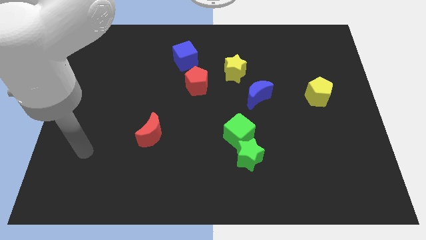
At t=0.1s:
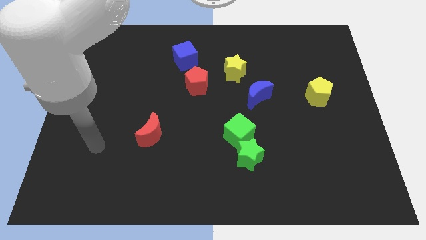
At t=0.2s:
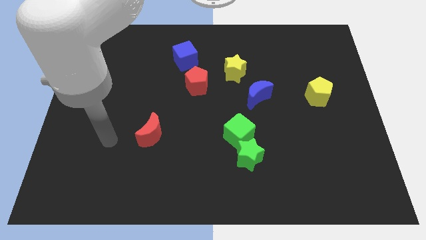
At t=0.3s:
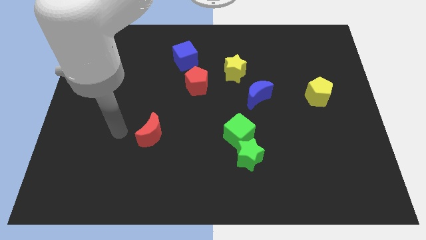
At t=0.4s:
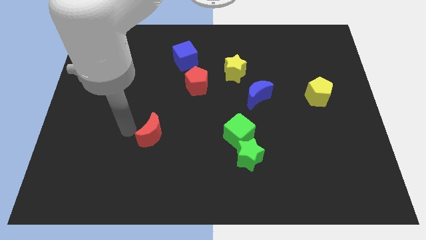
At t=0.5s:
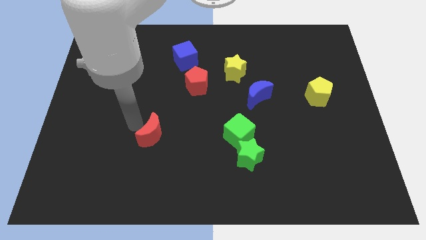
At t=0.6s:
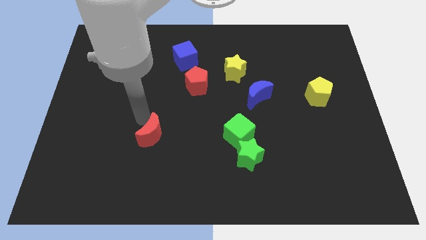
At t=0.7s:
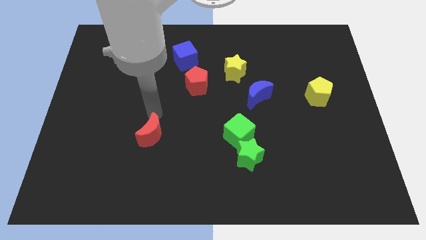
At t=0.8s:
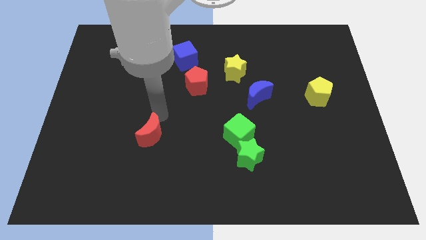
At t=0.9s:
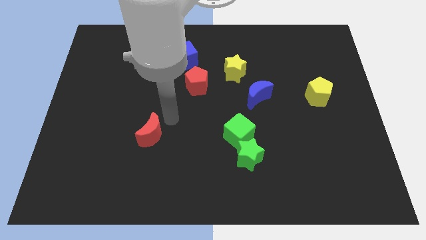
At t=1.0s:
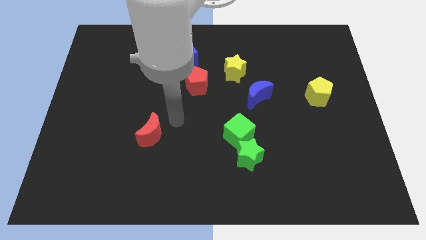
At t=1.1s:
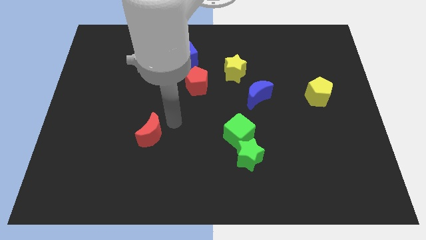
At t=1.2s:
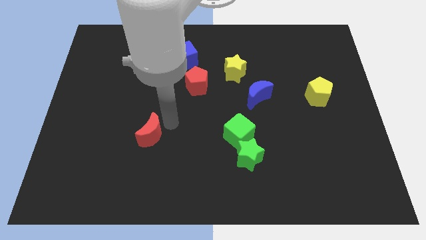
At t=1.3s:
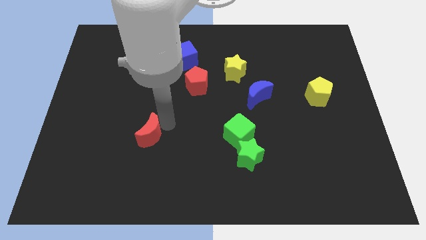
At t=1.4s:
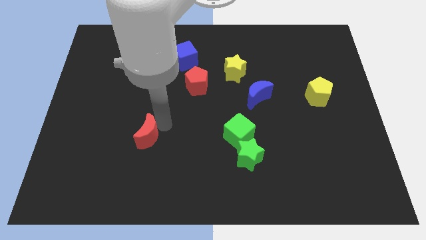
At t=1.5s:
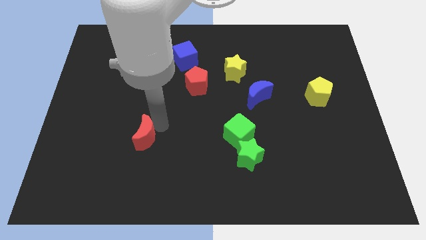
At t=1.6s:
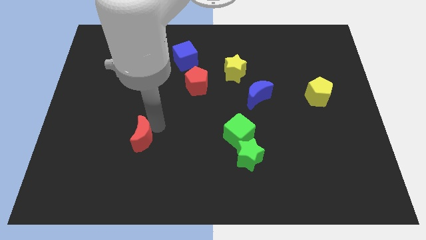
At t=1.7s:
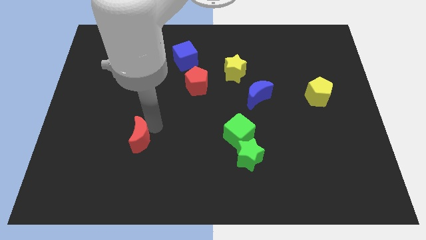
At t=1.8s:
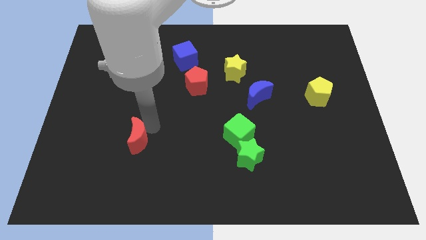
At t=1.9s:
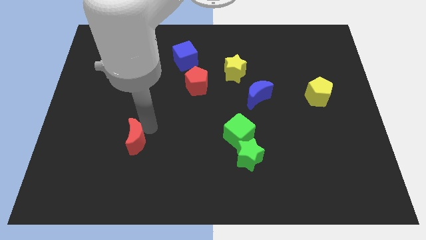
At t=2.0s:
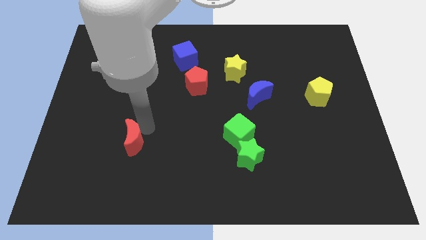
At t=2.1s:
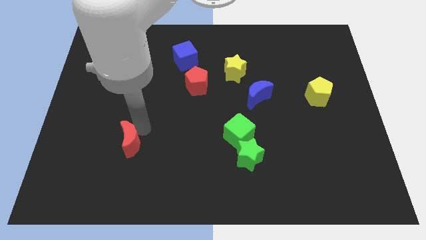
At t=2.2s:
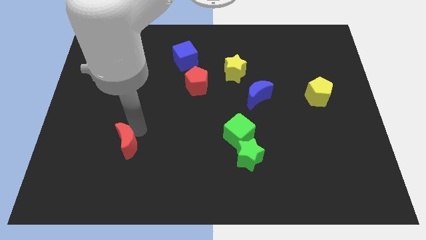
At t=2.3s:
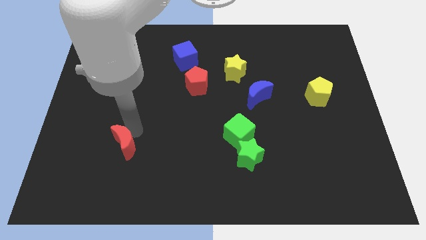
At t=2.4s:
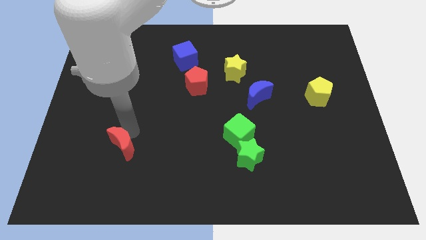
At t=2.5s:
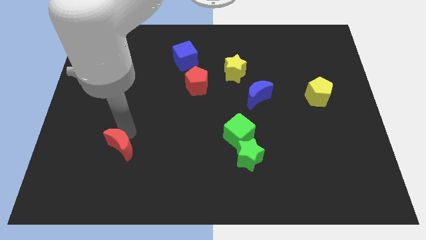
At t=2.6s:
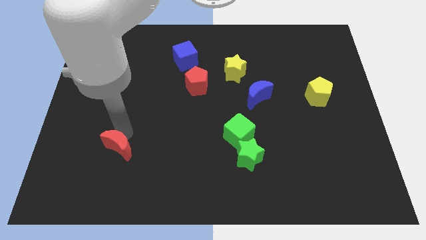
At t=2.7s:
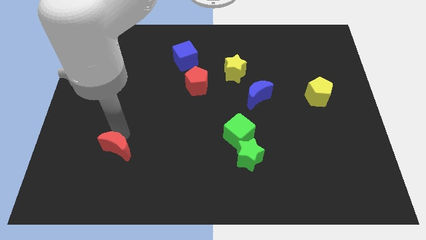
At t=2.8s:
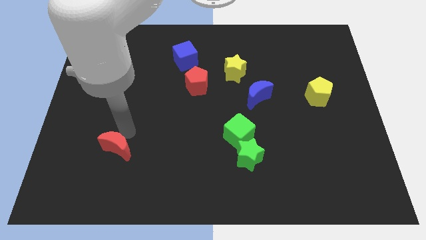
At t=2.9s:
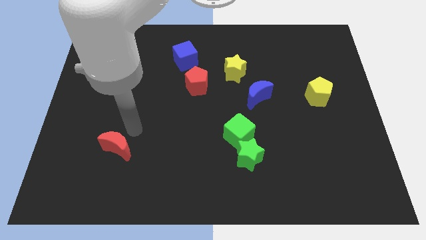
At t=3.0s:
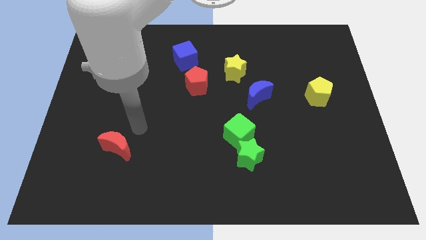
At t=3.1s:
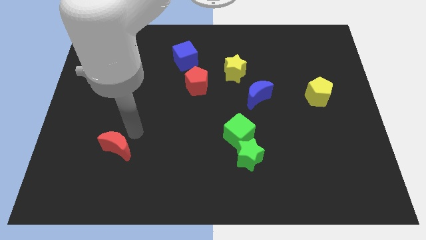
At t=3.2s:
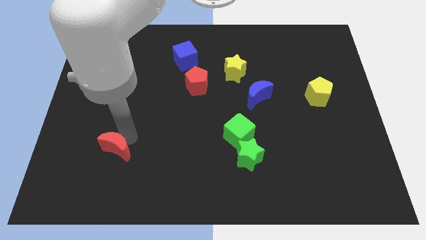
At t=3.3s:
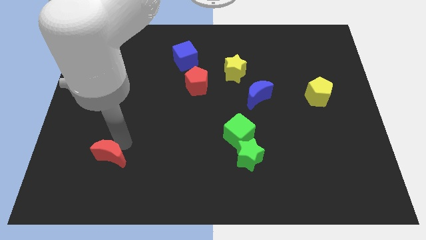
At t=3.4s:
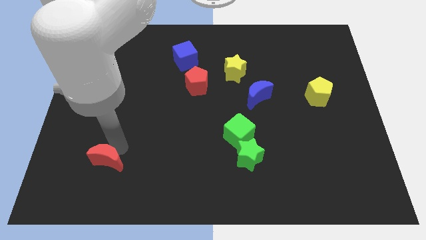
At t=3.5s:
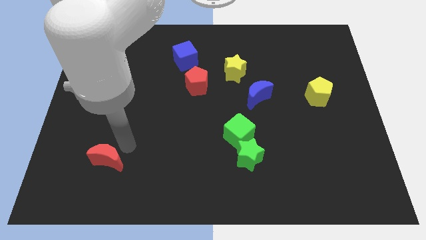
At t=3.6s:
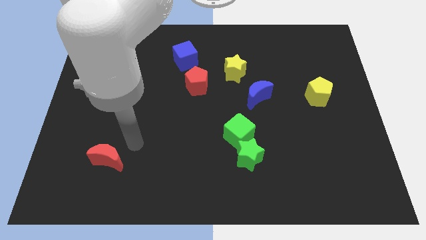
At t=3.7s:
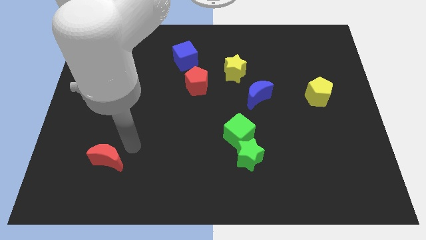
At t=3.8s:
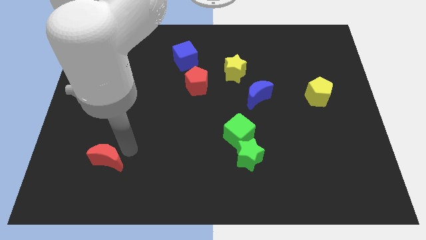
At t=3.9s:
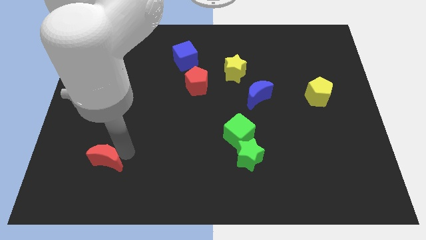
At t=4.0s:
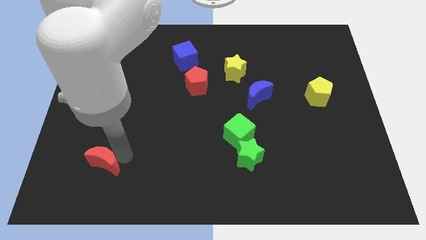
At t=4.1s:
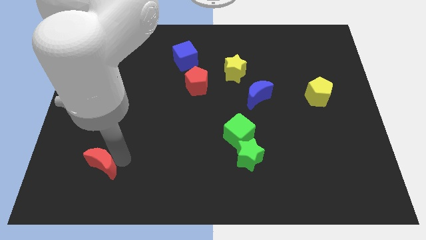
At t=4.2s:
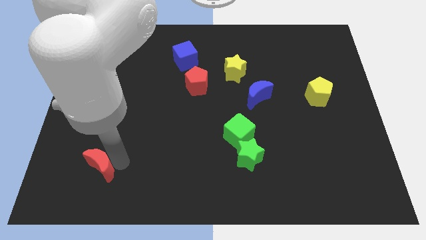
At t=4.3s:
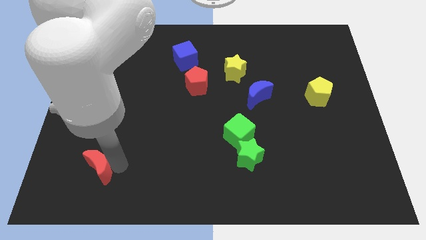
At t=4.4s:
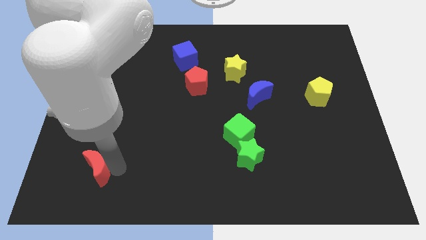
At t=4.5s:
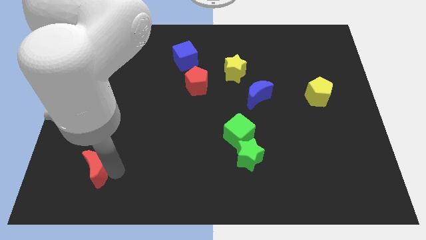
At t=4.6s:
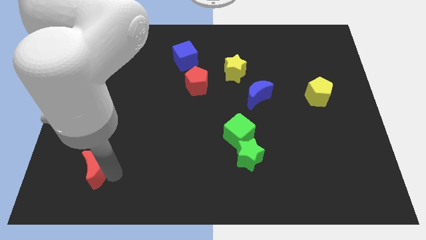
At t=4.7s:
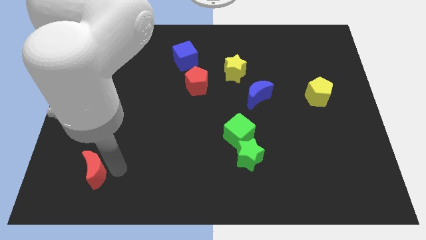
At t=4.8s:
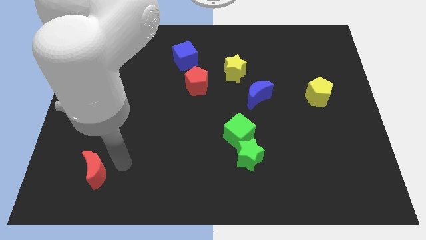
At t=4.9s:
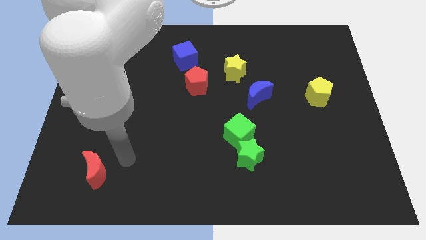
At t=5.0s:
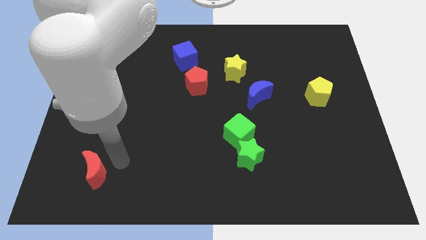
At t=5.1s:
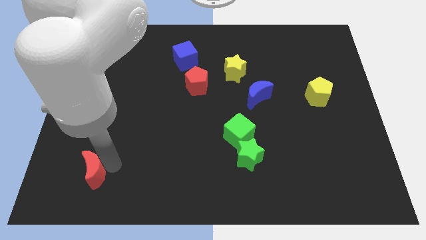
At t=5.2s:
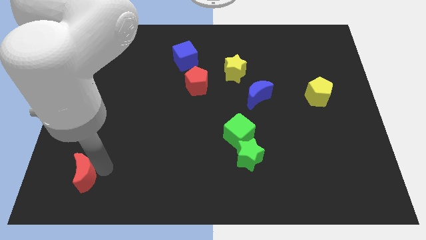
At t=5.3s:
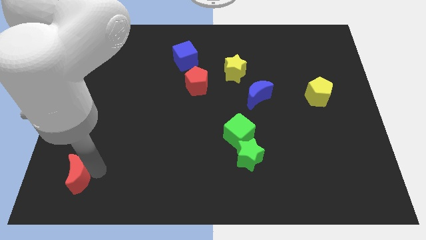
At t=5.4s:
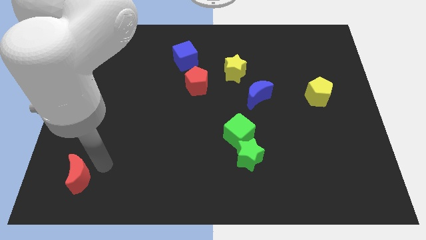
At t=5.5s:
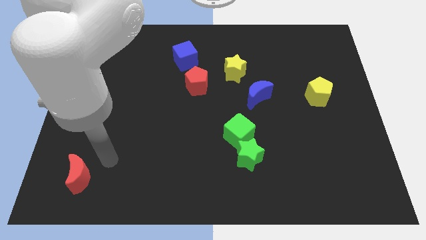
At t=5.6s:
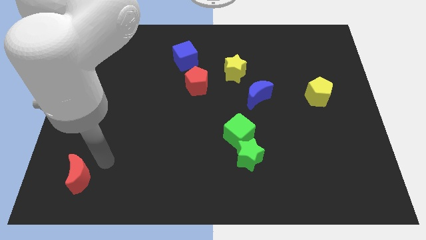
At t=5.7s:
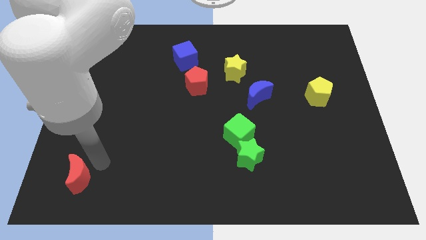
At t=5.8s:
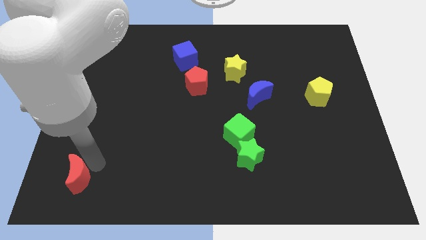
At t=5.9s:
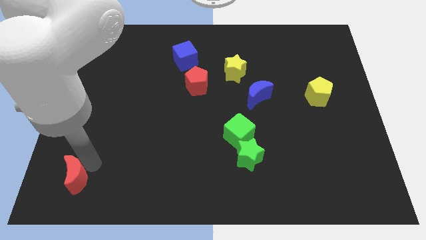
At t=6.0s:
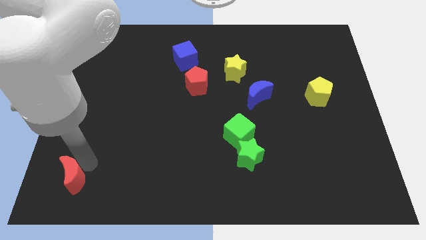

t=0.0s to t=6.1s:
push the red moon to the bottom left of the board
